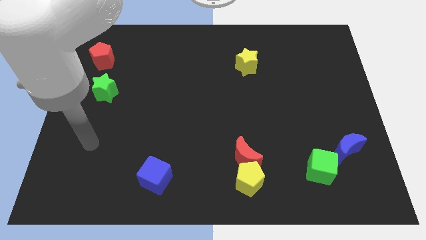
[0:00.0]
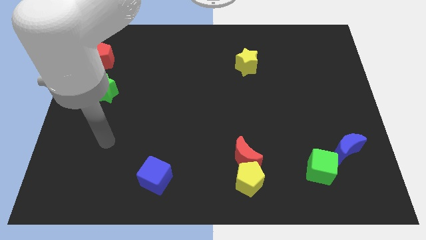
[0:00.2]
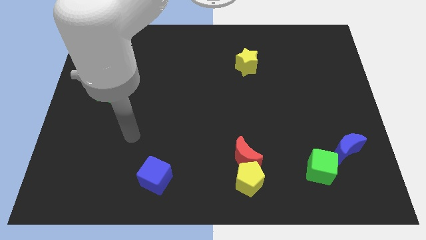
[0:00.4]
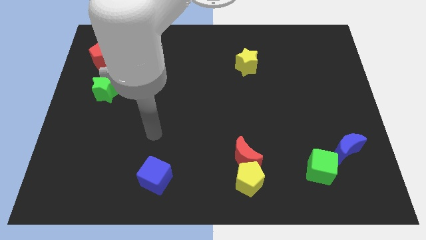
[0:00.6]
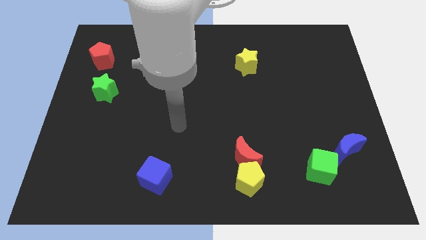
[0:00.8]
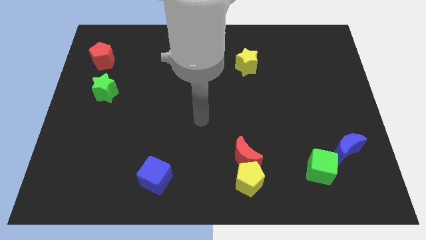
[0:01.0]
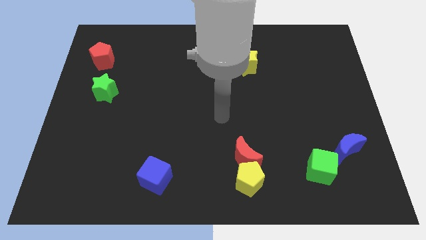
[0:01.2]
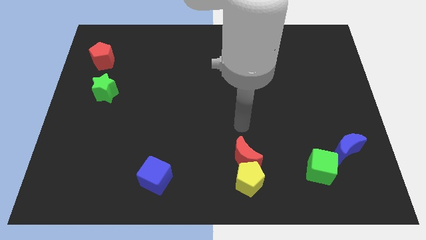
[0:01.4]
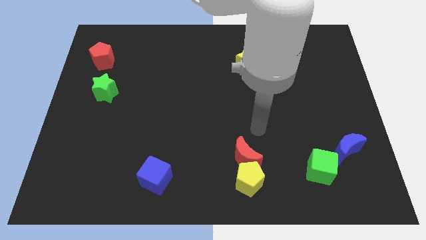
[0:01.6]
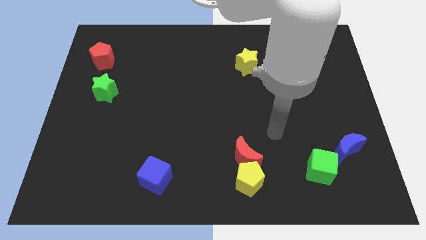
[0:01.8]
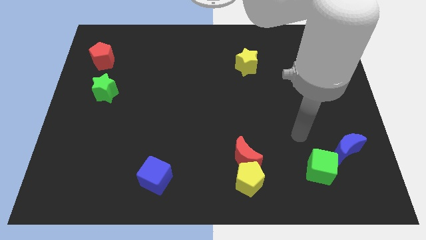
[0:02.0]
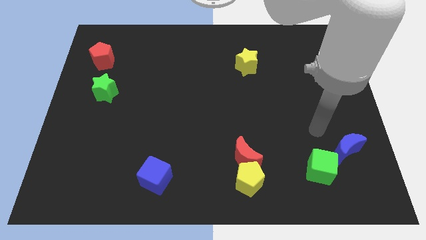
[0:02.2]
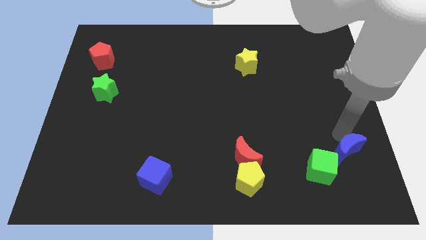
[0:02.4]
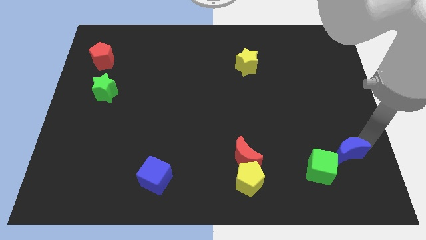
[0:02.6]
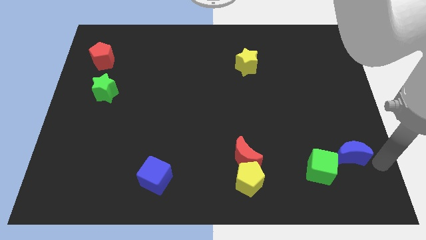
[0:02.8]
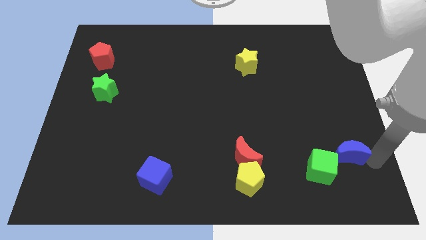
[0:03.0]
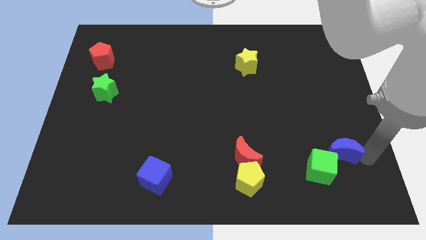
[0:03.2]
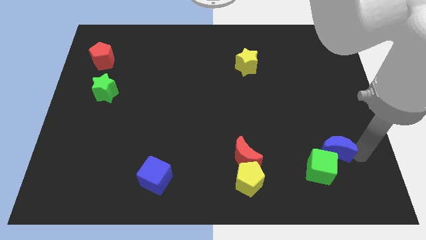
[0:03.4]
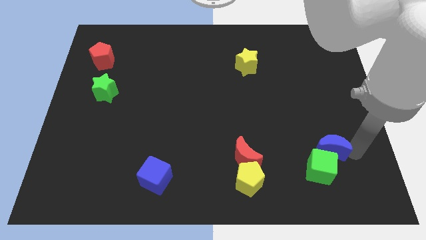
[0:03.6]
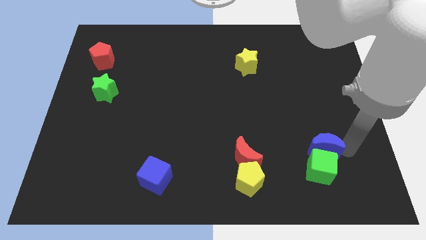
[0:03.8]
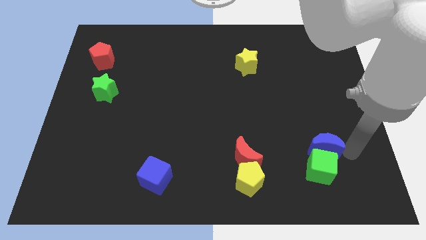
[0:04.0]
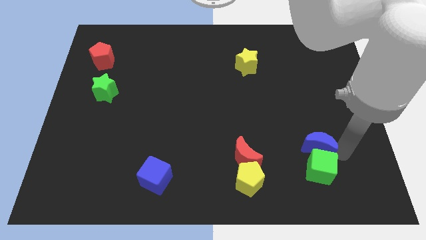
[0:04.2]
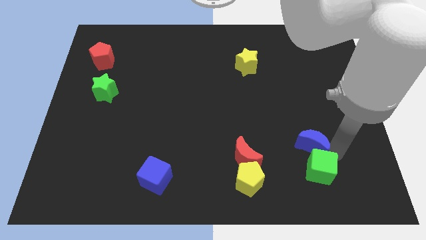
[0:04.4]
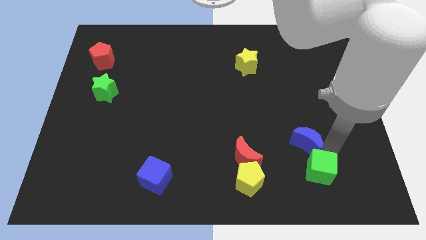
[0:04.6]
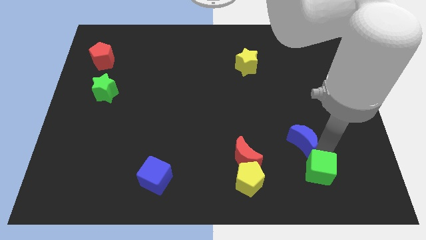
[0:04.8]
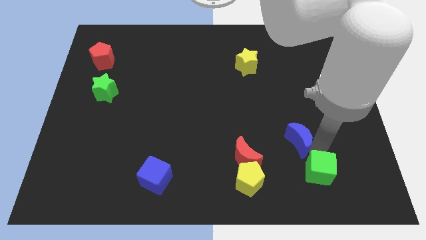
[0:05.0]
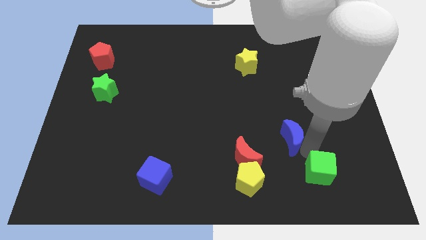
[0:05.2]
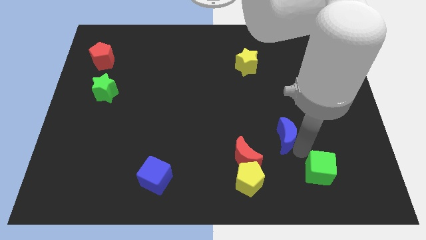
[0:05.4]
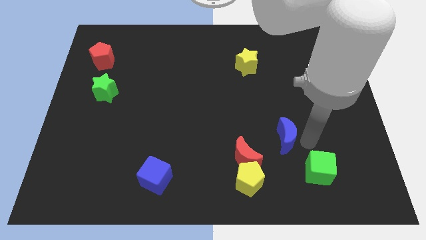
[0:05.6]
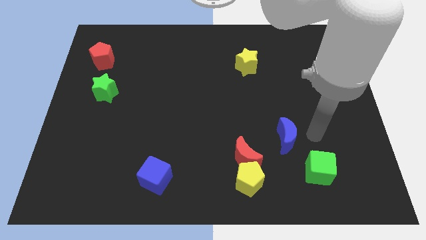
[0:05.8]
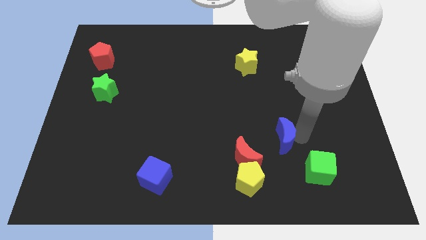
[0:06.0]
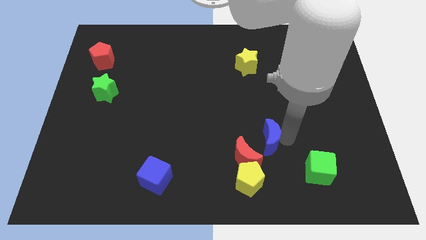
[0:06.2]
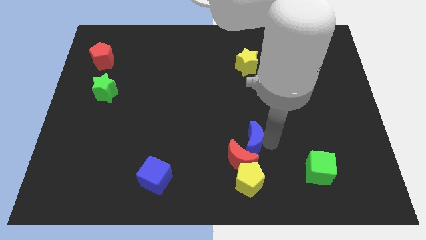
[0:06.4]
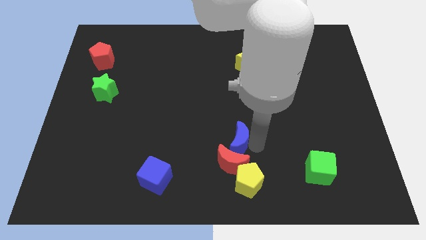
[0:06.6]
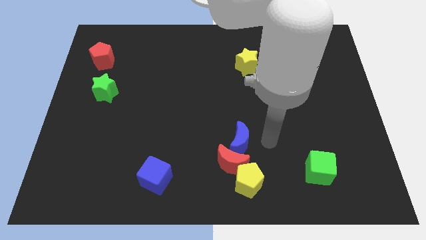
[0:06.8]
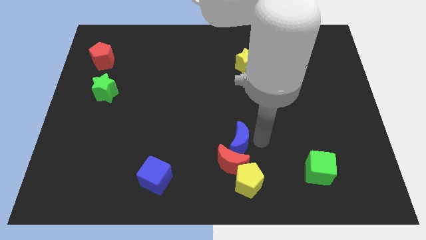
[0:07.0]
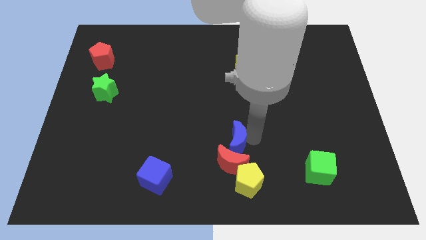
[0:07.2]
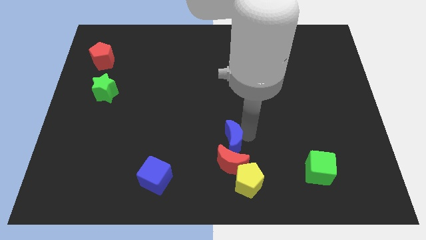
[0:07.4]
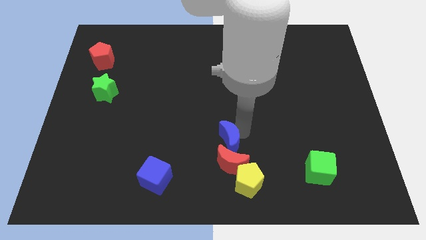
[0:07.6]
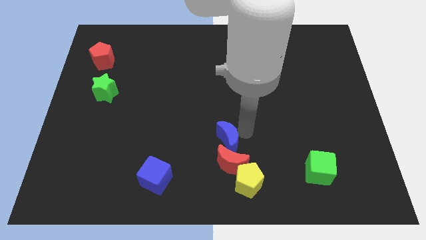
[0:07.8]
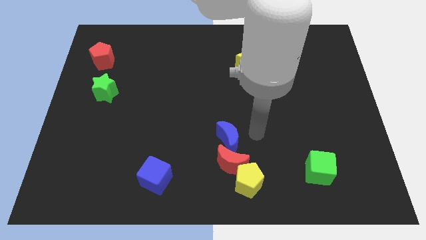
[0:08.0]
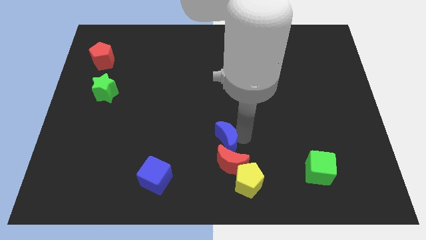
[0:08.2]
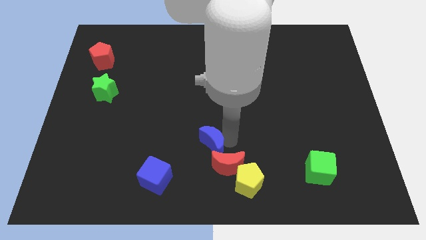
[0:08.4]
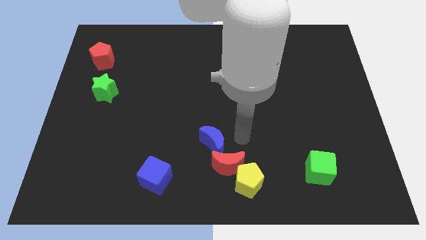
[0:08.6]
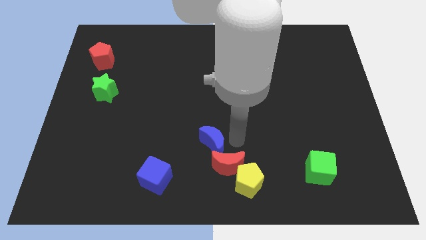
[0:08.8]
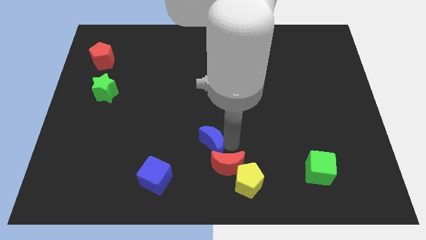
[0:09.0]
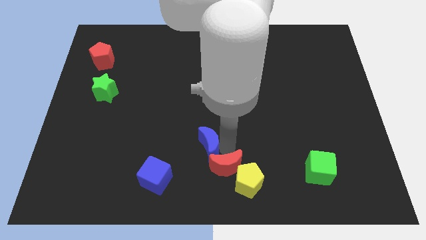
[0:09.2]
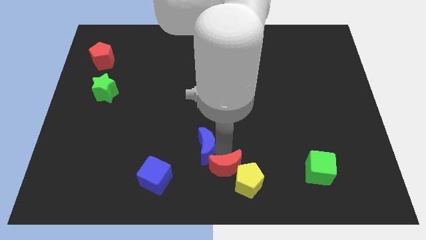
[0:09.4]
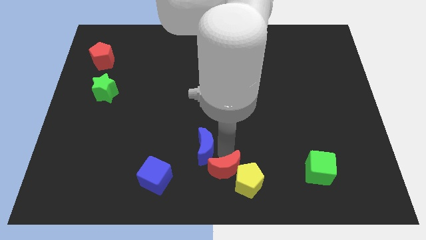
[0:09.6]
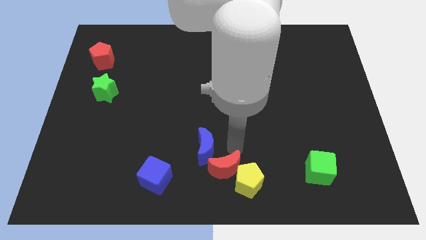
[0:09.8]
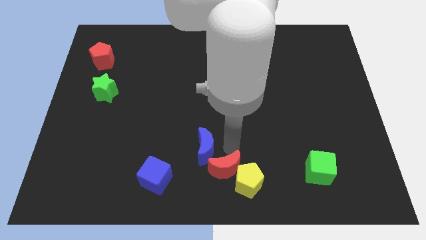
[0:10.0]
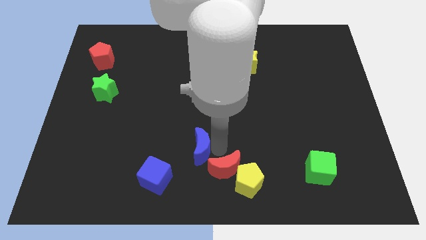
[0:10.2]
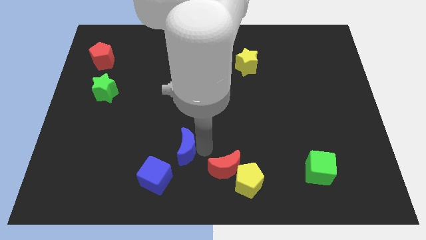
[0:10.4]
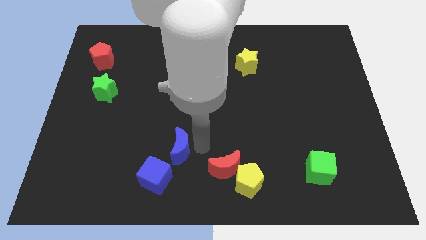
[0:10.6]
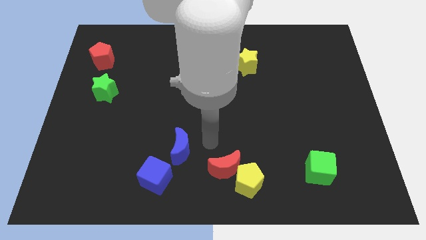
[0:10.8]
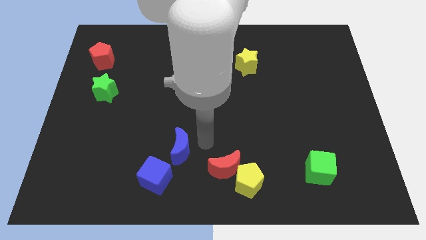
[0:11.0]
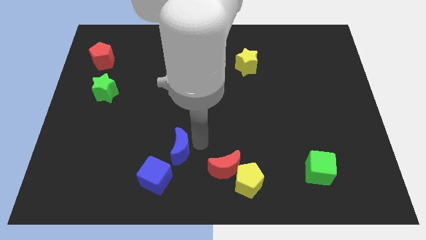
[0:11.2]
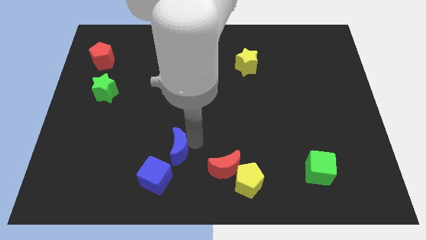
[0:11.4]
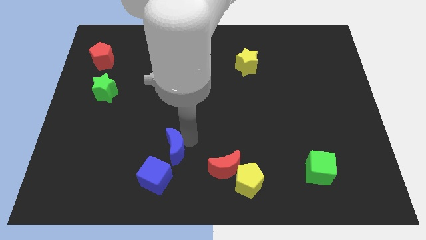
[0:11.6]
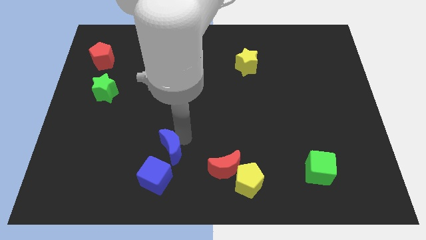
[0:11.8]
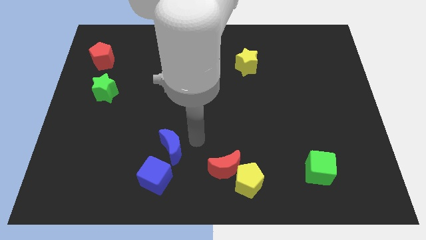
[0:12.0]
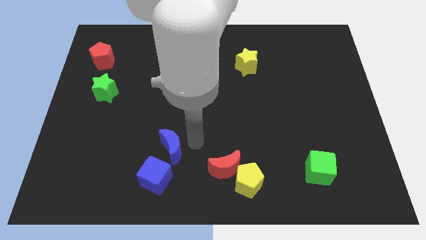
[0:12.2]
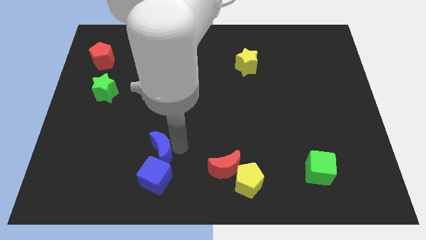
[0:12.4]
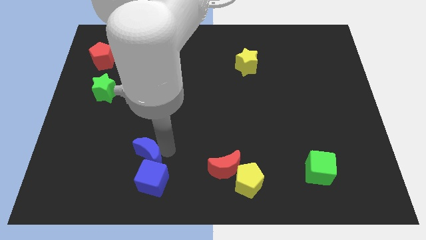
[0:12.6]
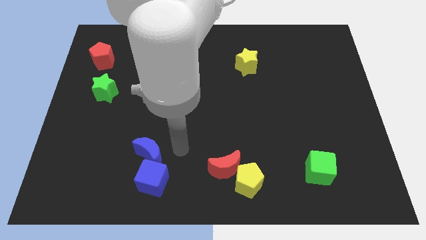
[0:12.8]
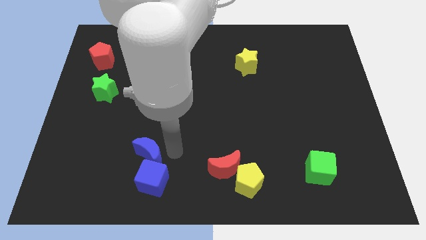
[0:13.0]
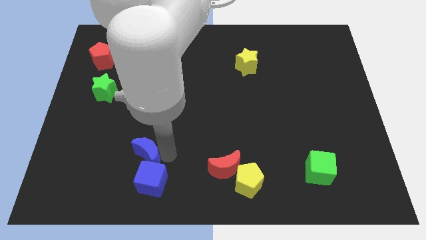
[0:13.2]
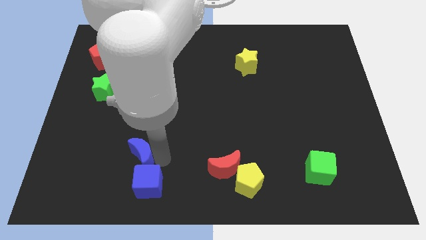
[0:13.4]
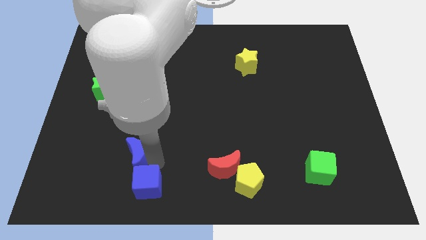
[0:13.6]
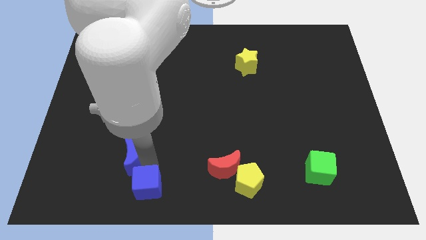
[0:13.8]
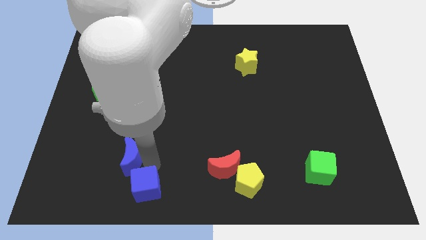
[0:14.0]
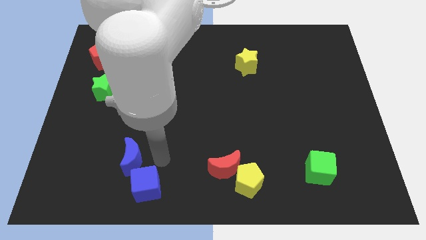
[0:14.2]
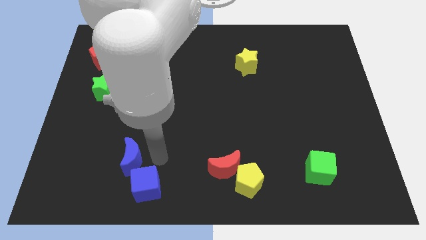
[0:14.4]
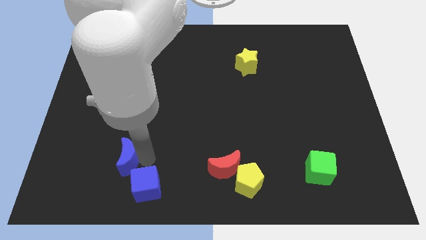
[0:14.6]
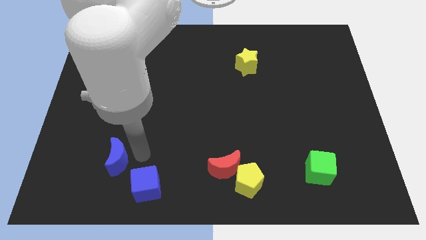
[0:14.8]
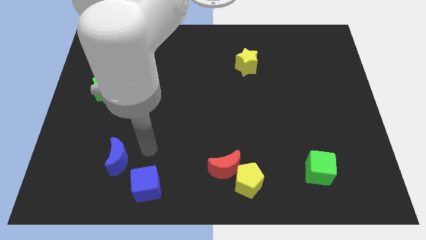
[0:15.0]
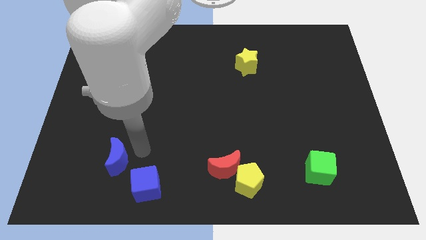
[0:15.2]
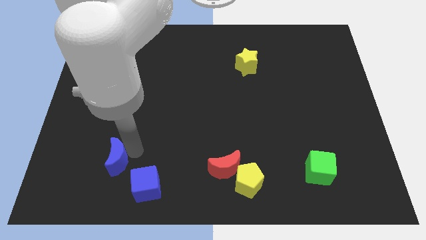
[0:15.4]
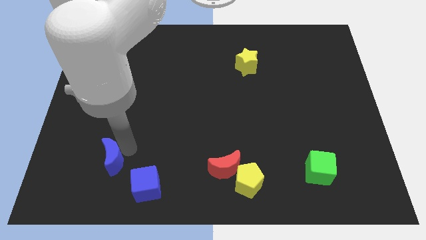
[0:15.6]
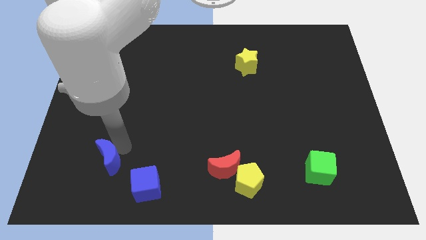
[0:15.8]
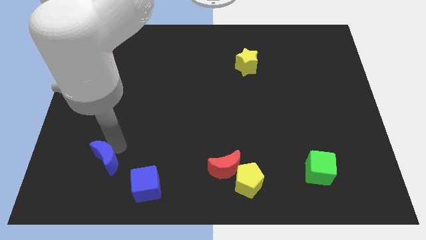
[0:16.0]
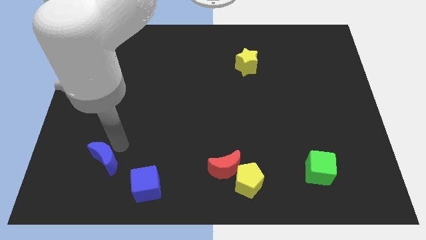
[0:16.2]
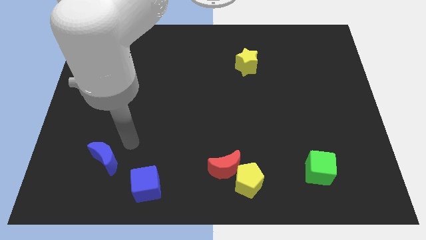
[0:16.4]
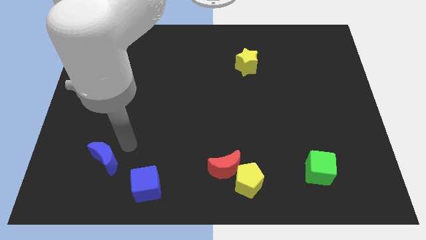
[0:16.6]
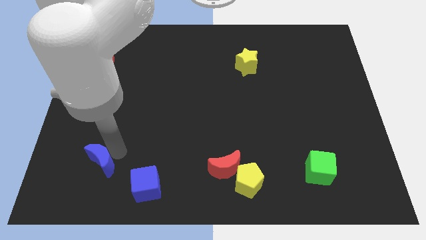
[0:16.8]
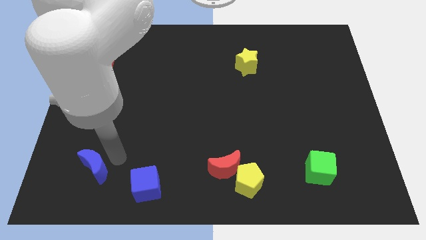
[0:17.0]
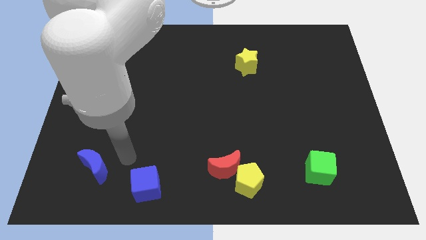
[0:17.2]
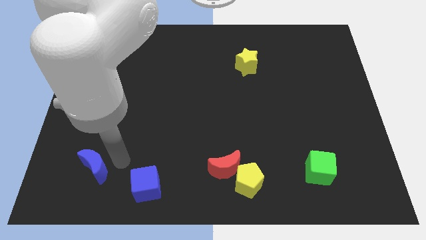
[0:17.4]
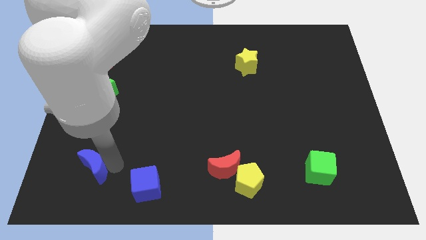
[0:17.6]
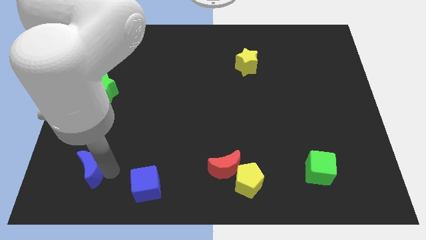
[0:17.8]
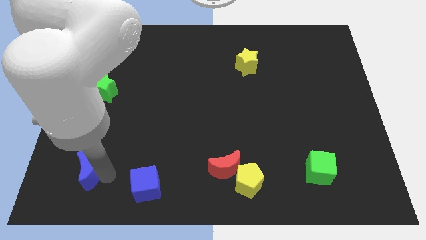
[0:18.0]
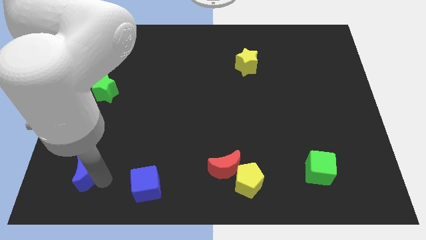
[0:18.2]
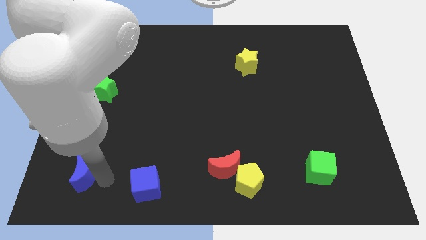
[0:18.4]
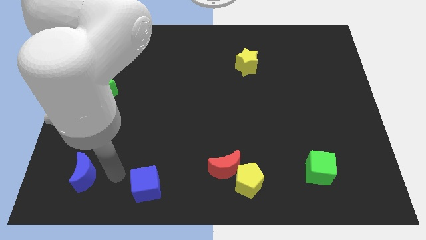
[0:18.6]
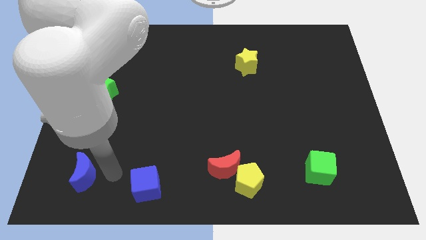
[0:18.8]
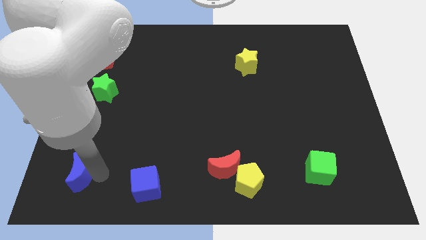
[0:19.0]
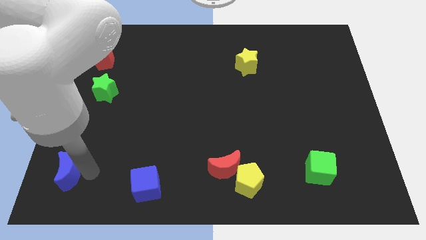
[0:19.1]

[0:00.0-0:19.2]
slide the blue moon to the bottom left
